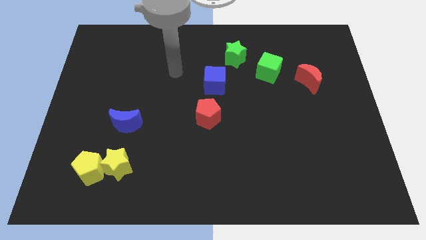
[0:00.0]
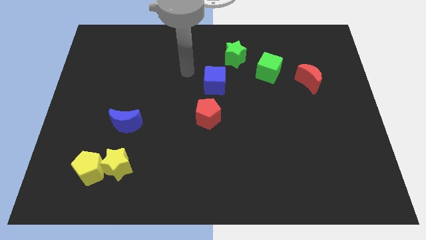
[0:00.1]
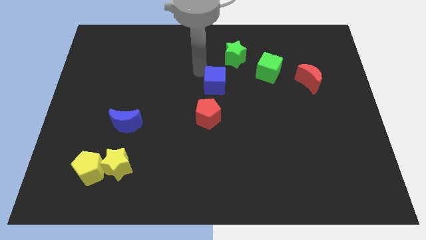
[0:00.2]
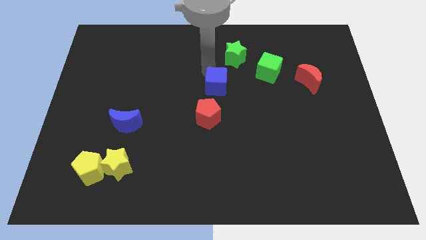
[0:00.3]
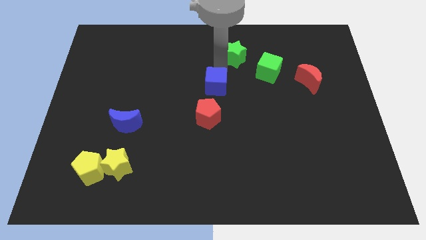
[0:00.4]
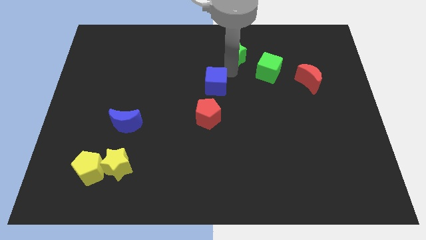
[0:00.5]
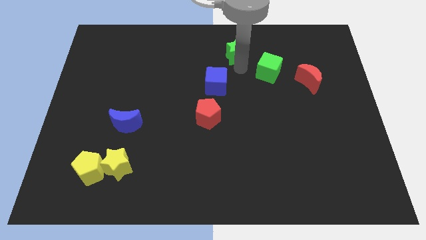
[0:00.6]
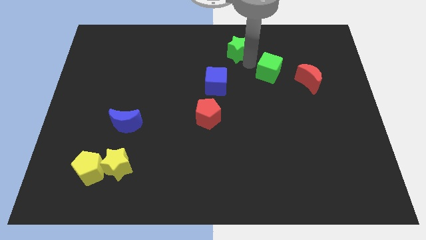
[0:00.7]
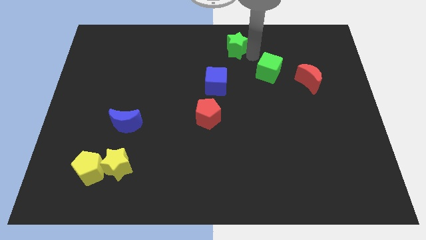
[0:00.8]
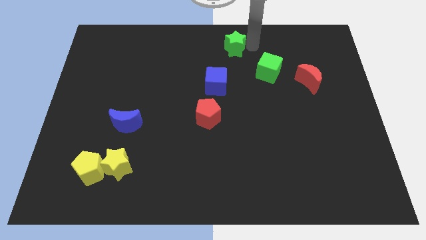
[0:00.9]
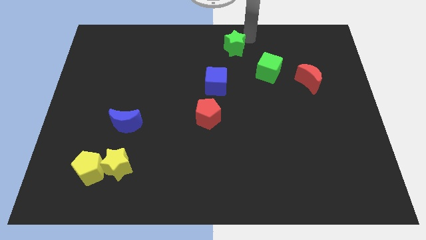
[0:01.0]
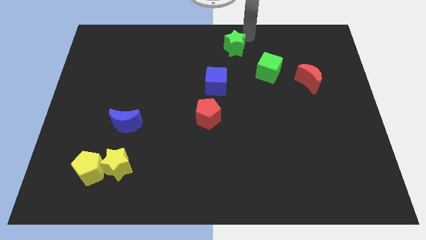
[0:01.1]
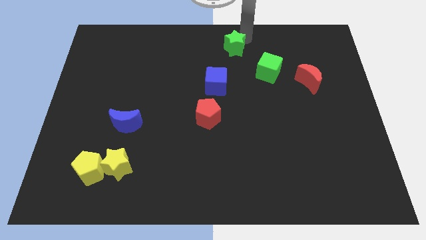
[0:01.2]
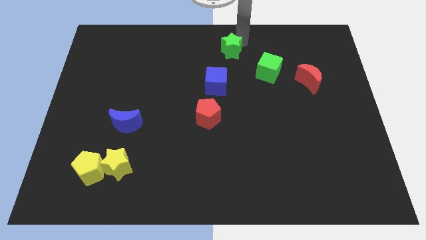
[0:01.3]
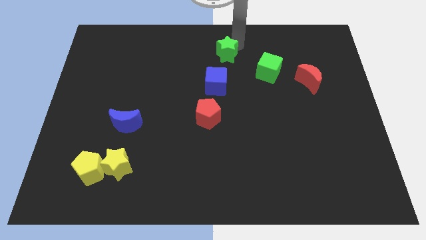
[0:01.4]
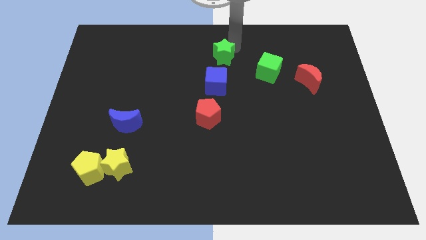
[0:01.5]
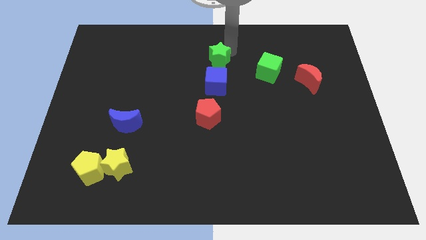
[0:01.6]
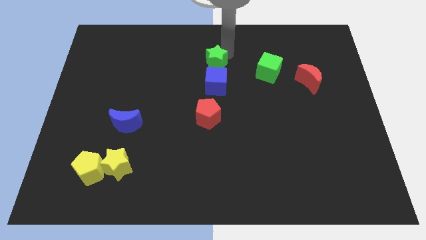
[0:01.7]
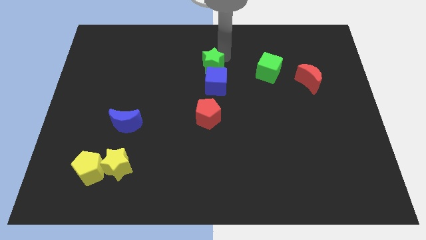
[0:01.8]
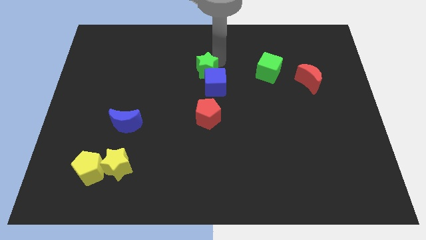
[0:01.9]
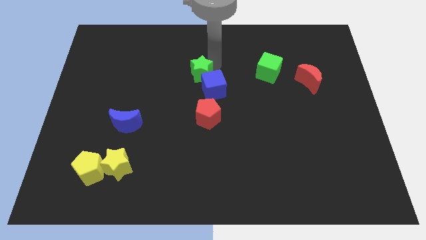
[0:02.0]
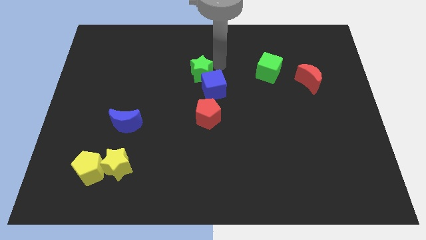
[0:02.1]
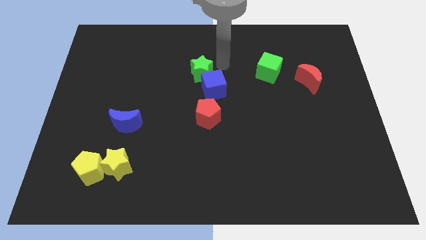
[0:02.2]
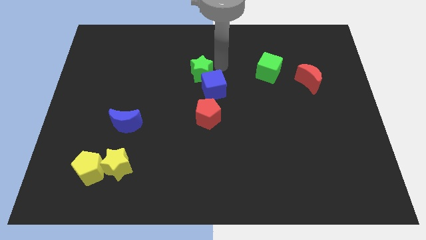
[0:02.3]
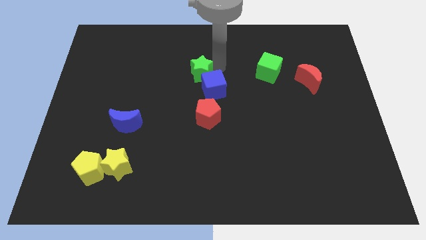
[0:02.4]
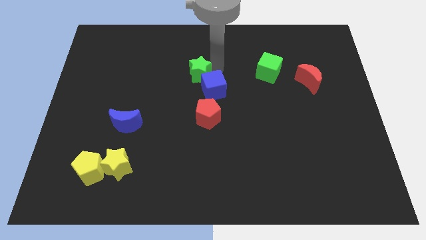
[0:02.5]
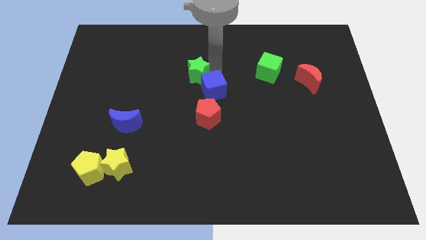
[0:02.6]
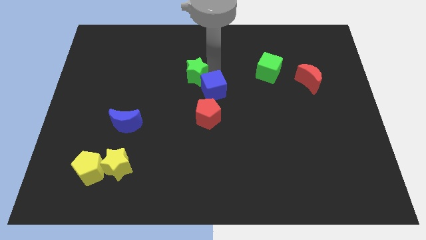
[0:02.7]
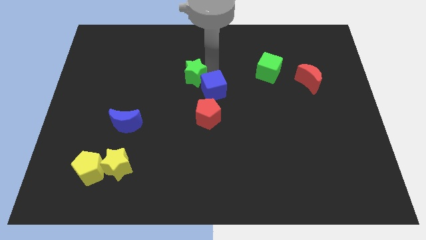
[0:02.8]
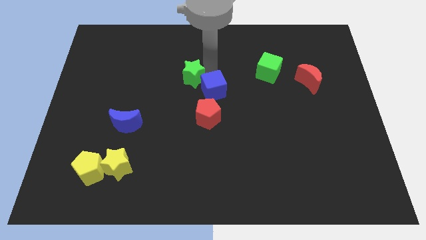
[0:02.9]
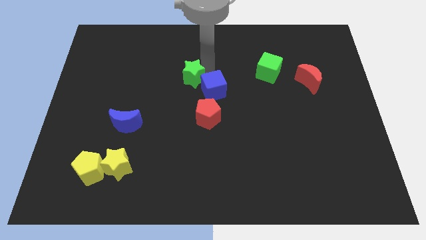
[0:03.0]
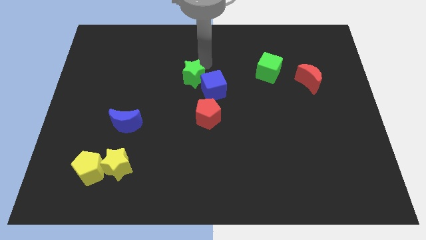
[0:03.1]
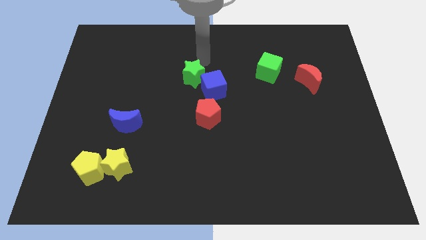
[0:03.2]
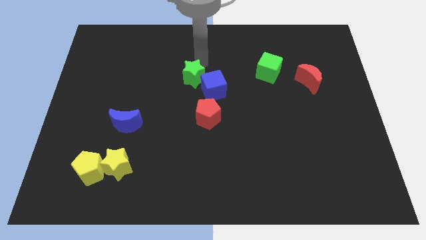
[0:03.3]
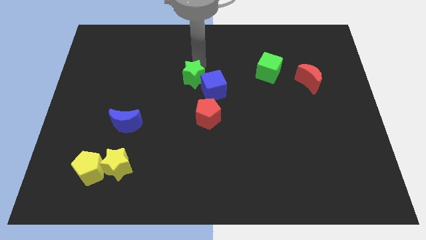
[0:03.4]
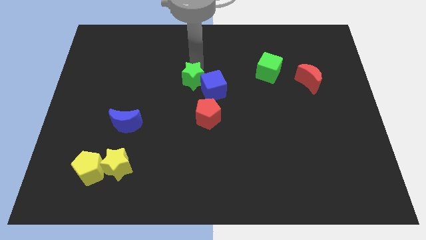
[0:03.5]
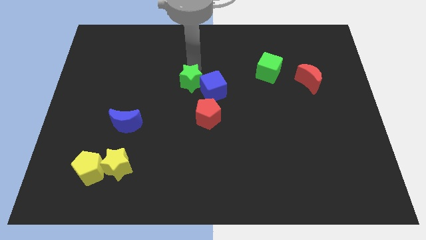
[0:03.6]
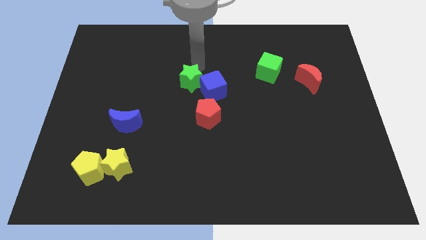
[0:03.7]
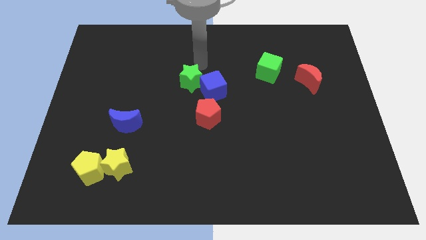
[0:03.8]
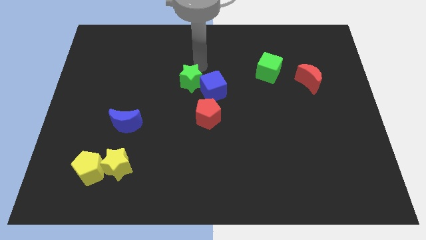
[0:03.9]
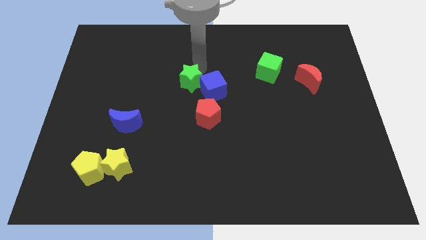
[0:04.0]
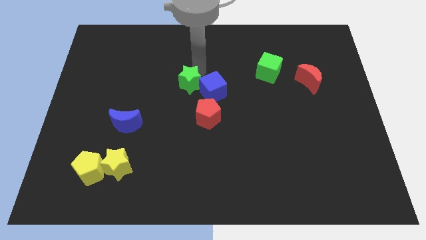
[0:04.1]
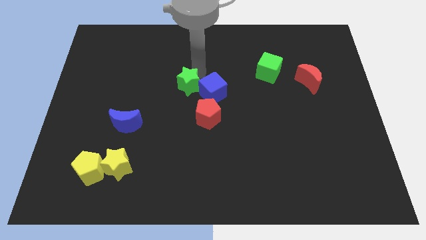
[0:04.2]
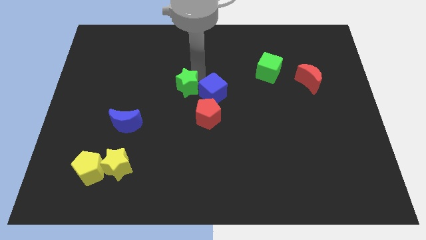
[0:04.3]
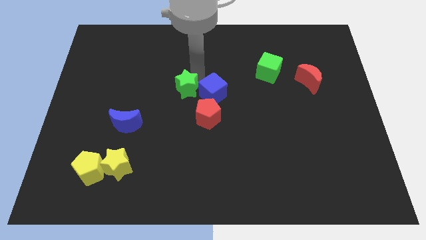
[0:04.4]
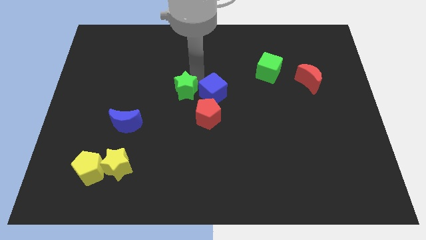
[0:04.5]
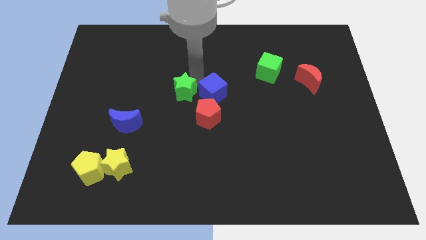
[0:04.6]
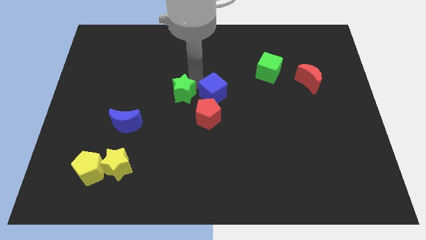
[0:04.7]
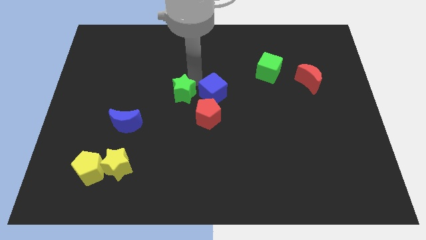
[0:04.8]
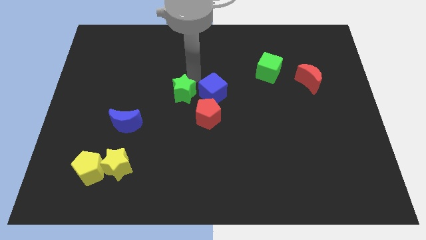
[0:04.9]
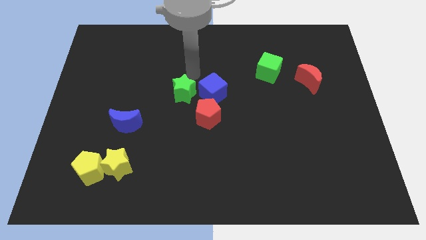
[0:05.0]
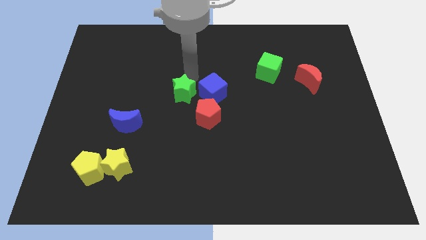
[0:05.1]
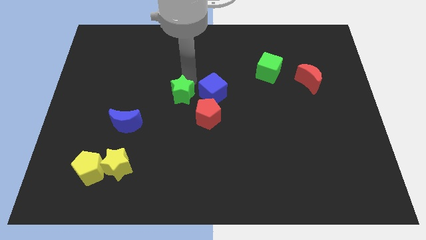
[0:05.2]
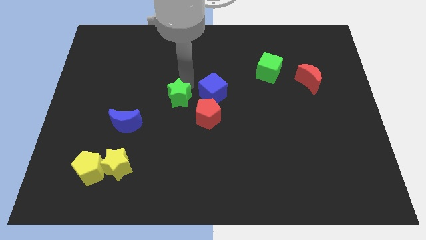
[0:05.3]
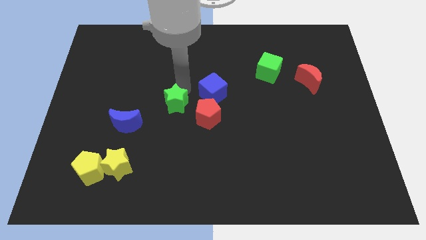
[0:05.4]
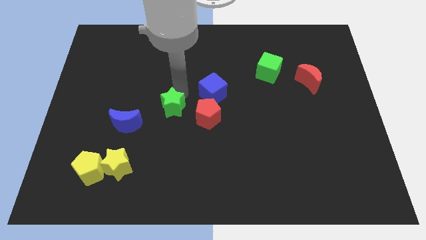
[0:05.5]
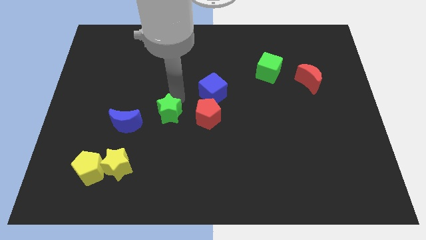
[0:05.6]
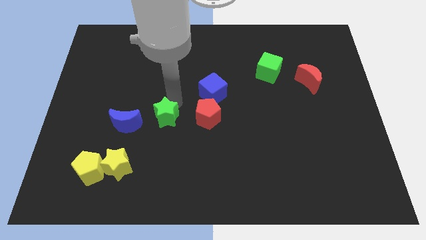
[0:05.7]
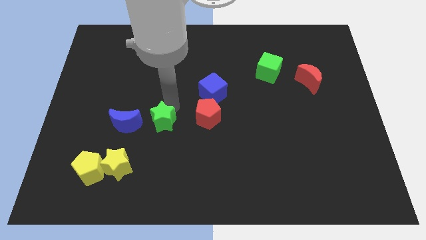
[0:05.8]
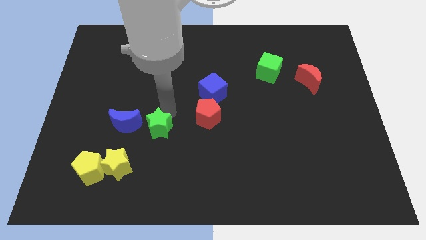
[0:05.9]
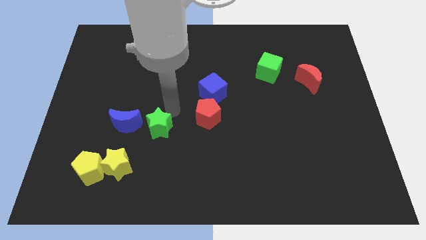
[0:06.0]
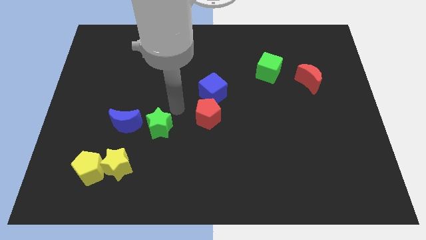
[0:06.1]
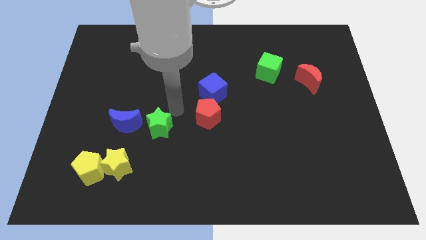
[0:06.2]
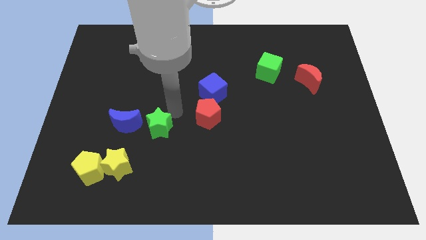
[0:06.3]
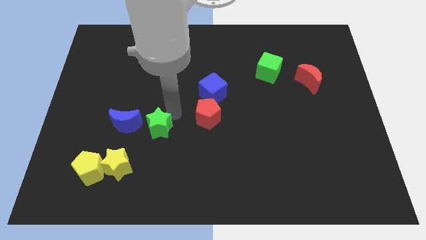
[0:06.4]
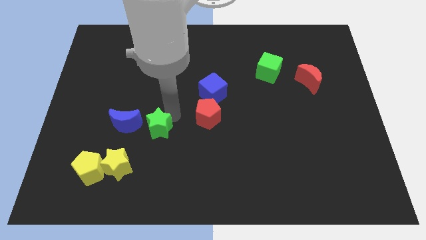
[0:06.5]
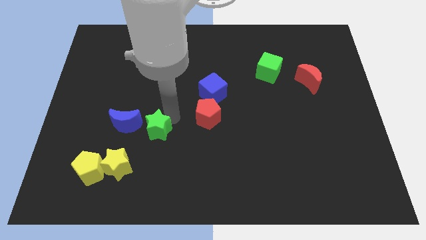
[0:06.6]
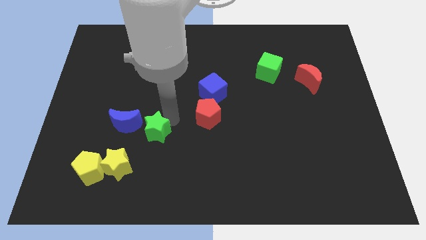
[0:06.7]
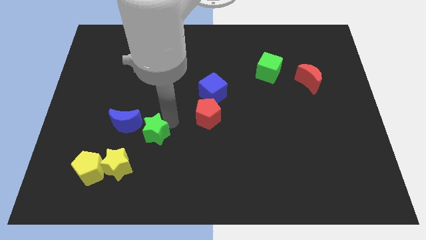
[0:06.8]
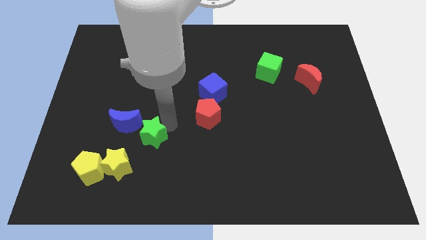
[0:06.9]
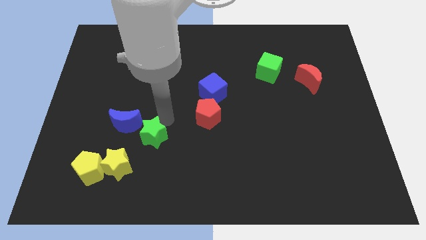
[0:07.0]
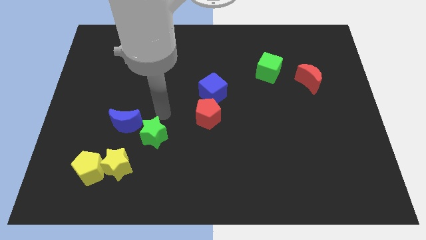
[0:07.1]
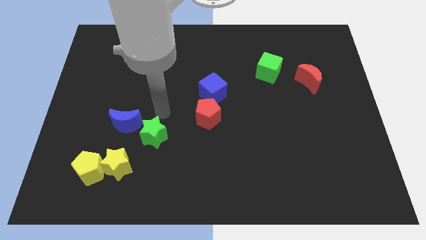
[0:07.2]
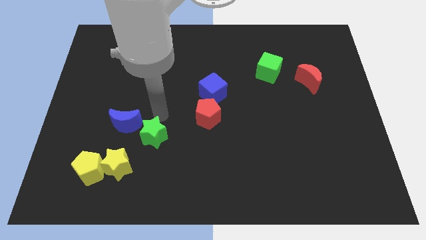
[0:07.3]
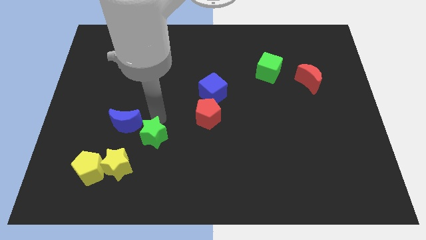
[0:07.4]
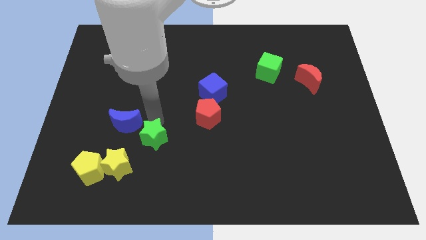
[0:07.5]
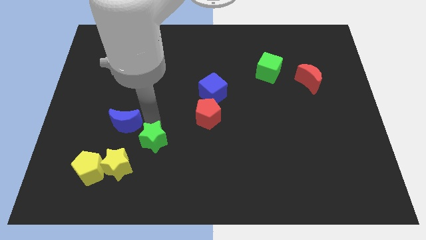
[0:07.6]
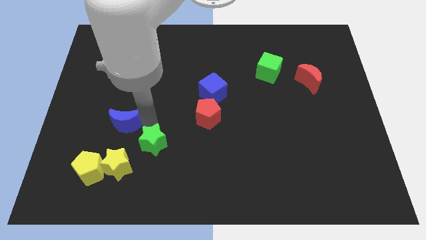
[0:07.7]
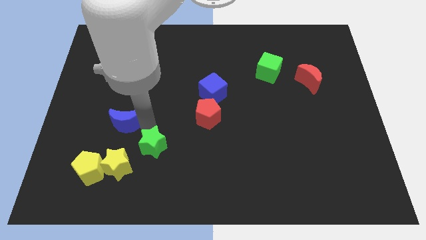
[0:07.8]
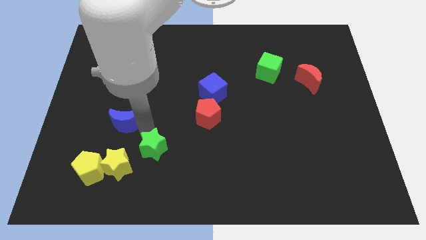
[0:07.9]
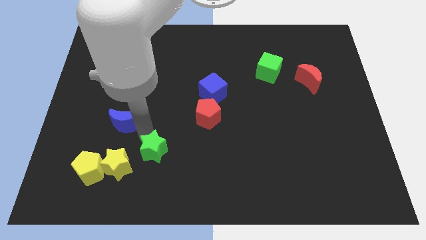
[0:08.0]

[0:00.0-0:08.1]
push the green star right of the yellow pentagon
